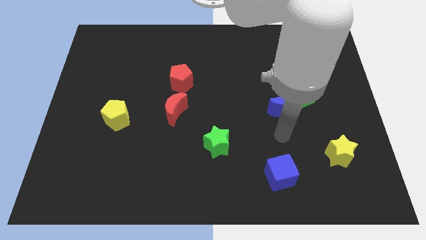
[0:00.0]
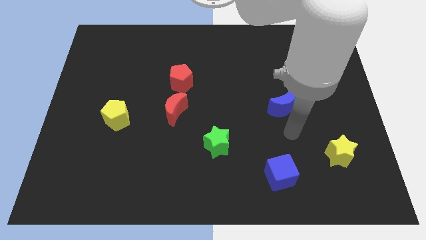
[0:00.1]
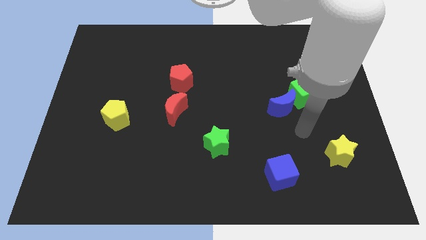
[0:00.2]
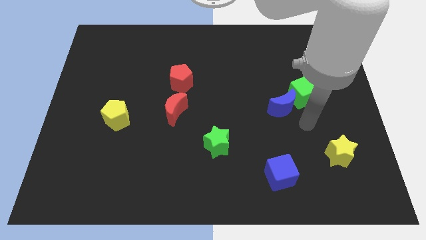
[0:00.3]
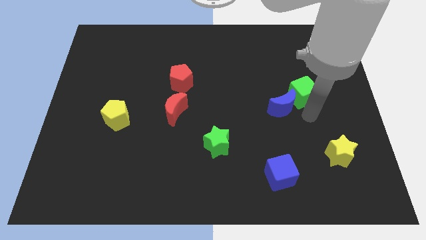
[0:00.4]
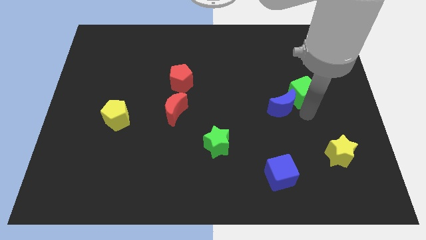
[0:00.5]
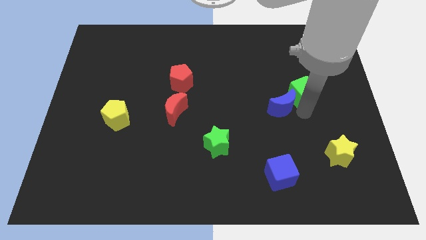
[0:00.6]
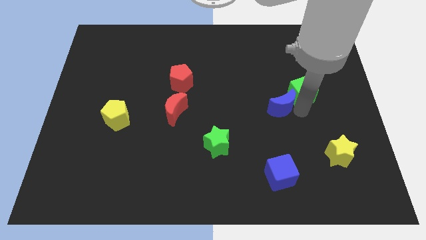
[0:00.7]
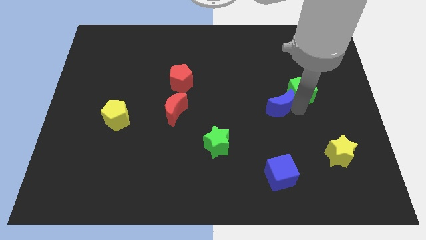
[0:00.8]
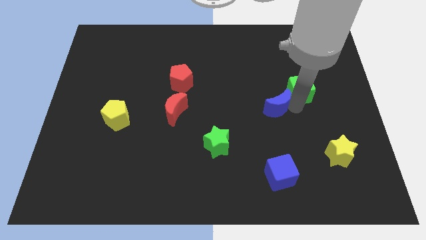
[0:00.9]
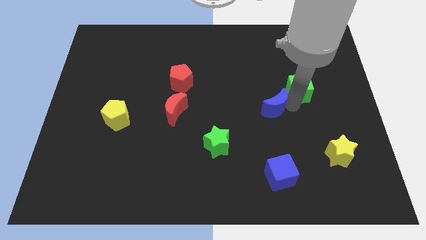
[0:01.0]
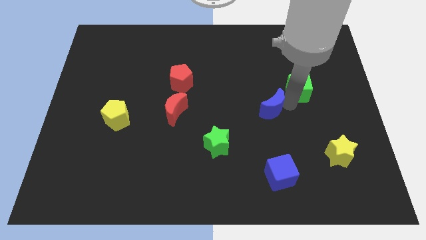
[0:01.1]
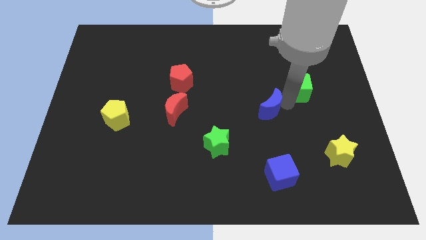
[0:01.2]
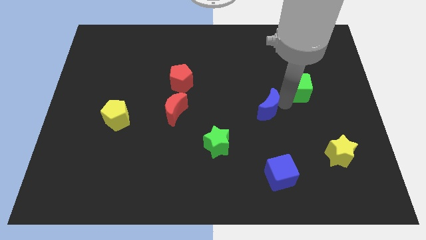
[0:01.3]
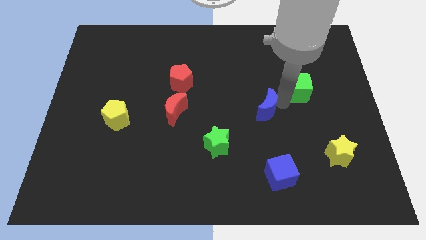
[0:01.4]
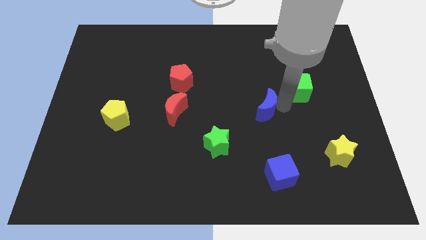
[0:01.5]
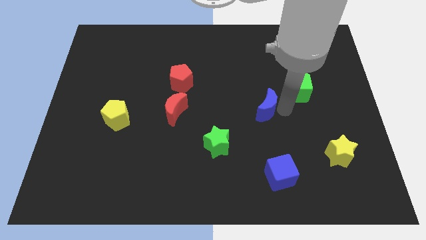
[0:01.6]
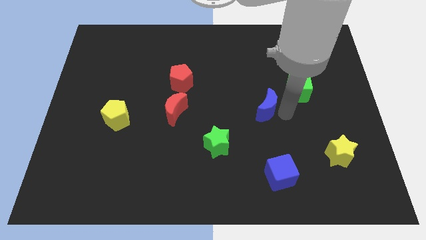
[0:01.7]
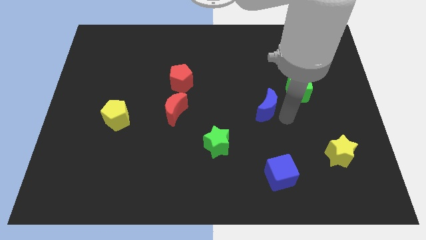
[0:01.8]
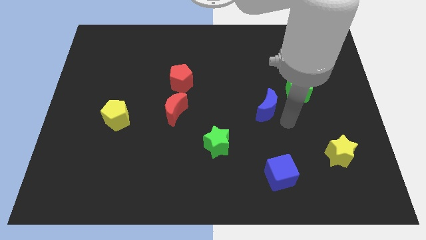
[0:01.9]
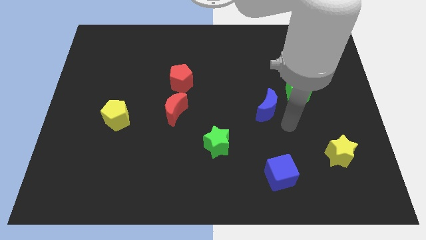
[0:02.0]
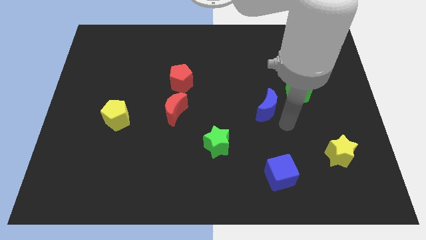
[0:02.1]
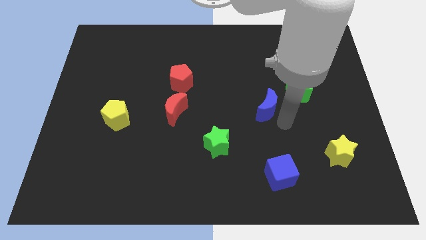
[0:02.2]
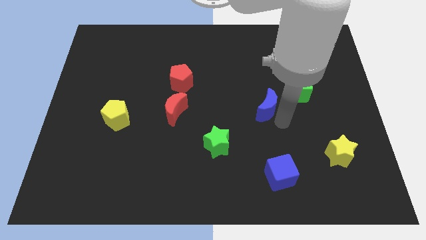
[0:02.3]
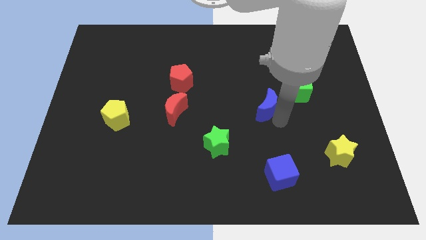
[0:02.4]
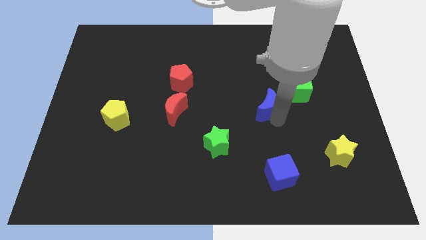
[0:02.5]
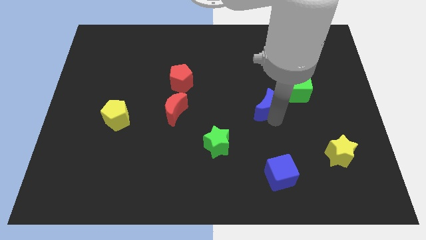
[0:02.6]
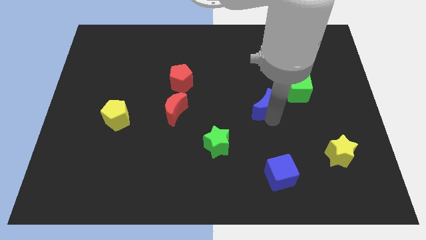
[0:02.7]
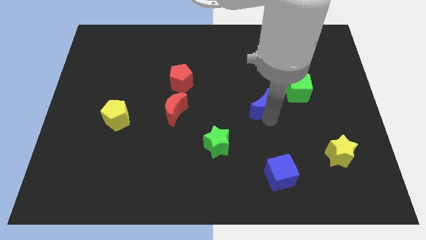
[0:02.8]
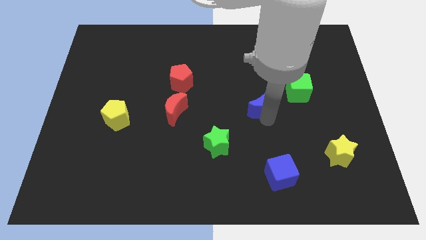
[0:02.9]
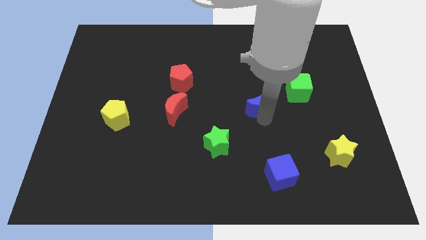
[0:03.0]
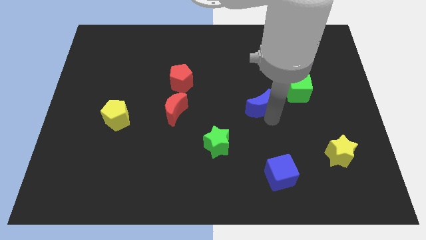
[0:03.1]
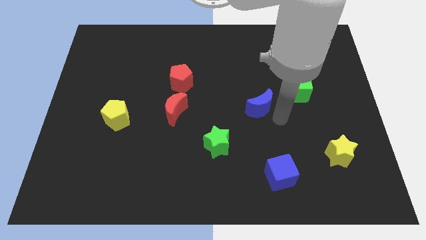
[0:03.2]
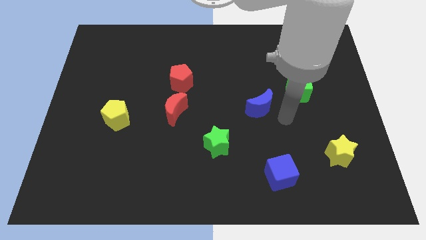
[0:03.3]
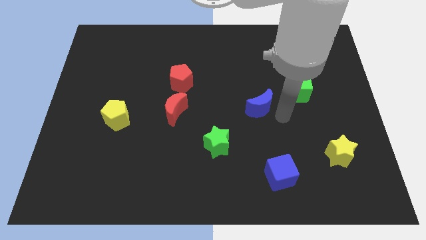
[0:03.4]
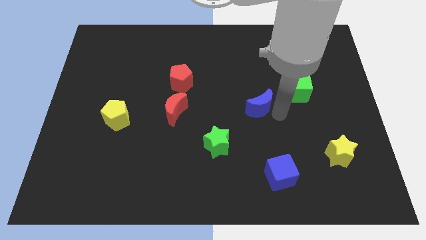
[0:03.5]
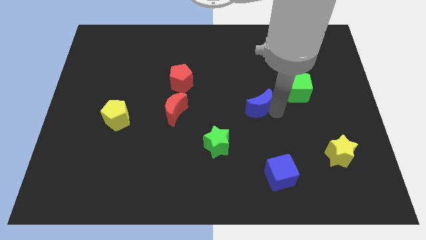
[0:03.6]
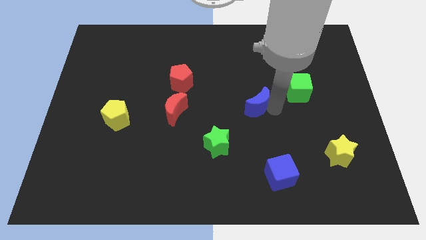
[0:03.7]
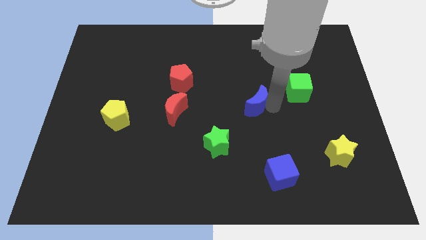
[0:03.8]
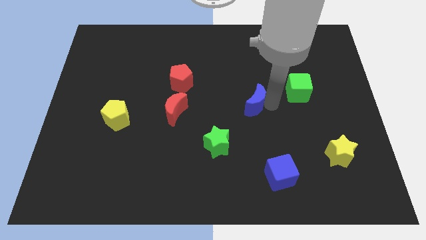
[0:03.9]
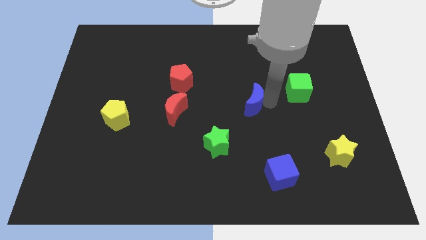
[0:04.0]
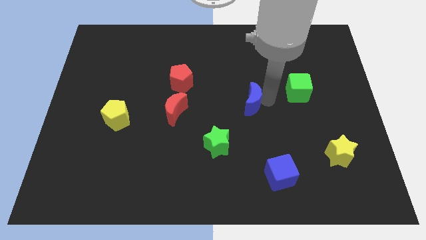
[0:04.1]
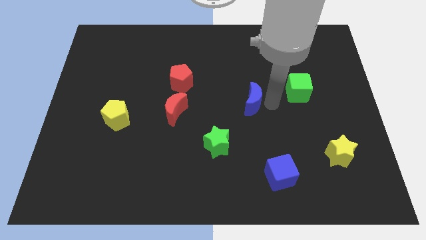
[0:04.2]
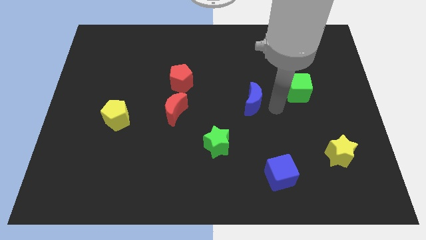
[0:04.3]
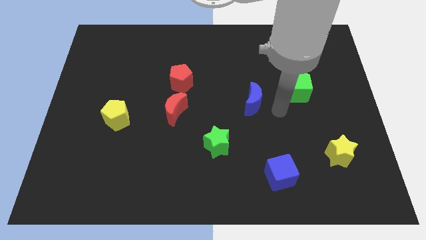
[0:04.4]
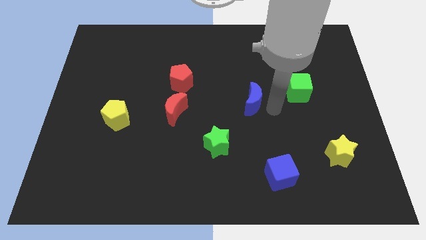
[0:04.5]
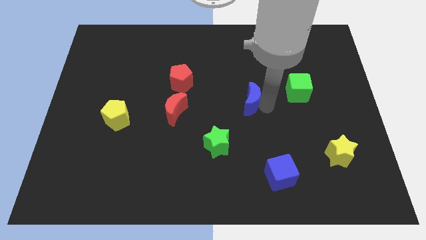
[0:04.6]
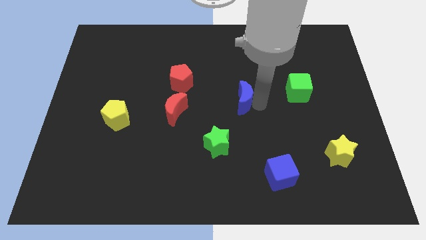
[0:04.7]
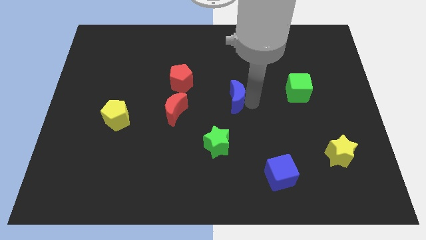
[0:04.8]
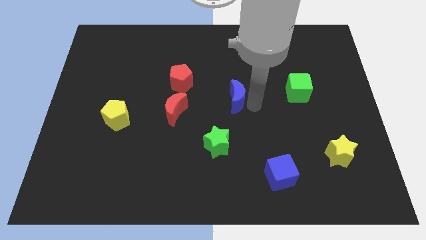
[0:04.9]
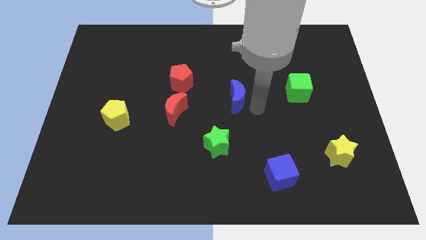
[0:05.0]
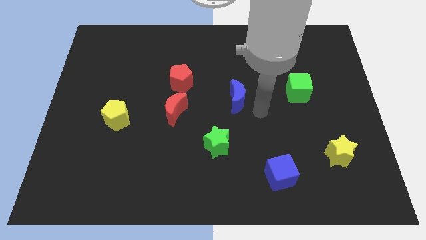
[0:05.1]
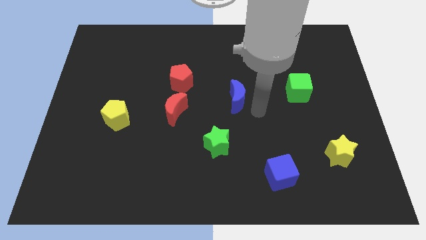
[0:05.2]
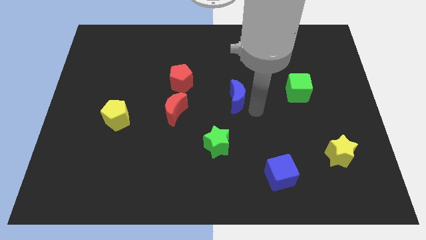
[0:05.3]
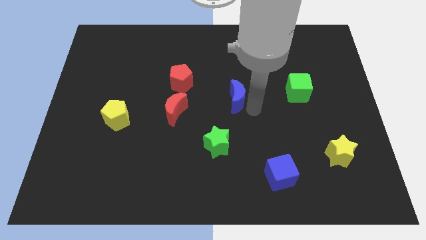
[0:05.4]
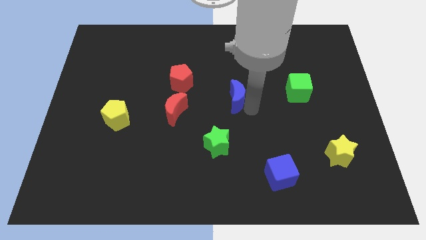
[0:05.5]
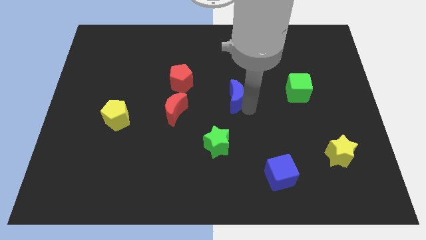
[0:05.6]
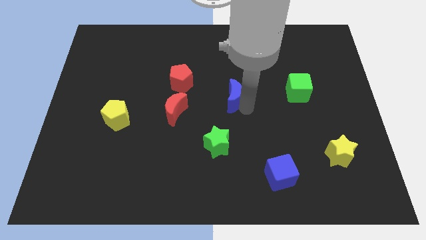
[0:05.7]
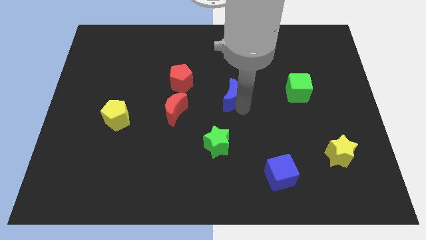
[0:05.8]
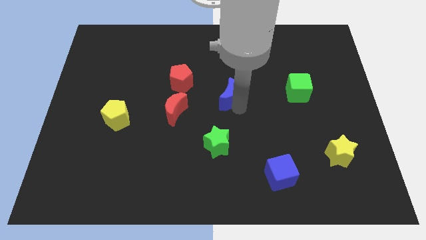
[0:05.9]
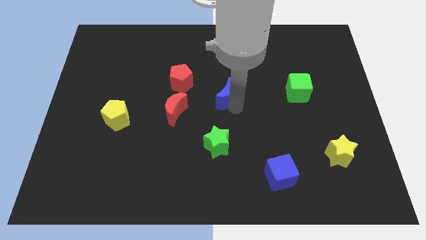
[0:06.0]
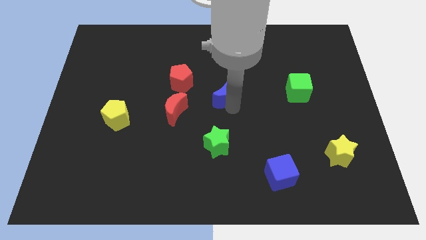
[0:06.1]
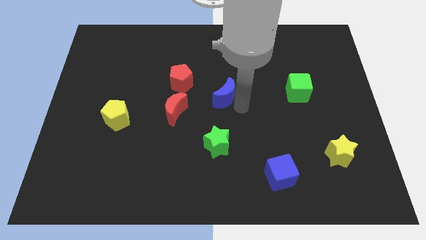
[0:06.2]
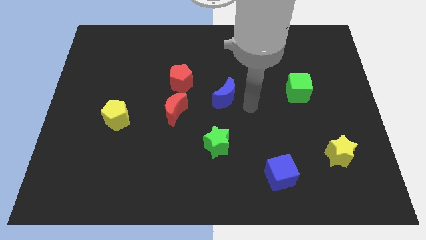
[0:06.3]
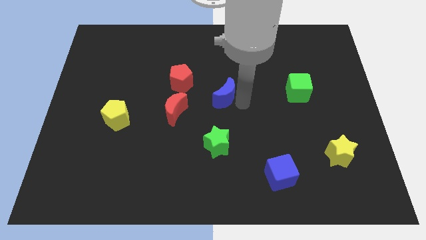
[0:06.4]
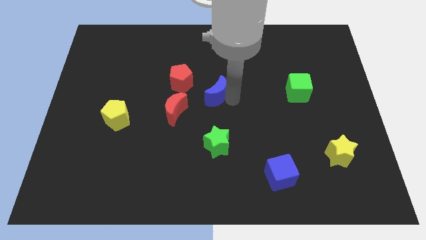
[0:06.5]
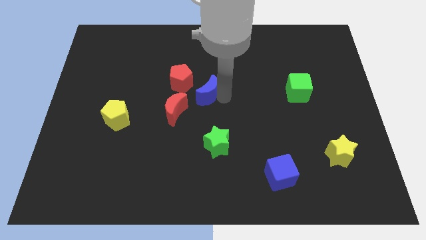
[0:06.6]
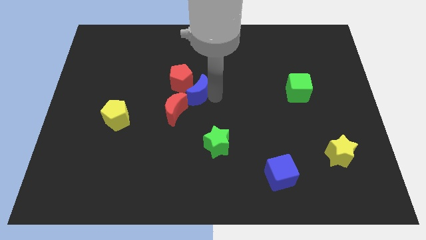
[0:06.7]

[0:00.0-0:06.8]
move the blue moon to the red pentagon

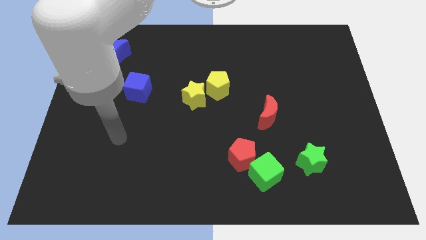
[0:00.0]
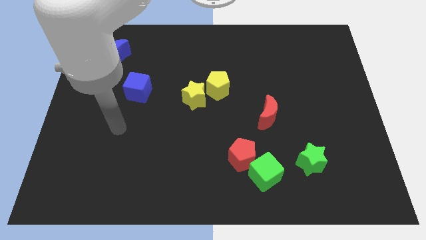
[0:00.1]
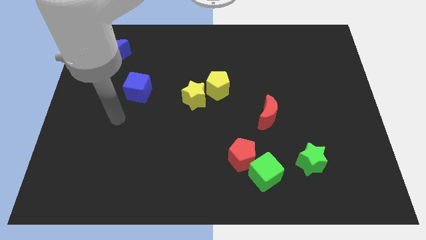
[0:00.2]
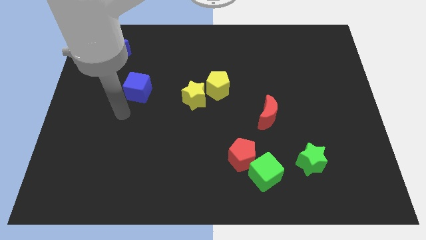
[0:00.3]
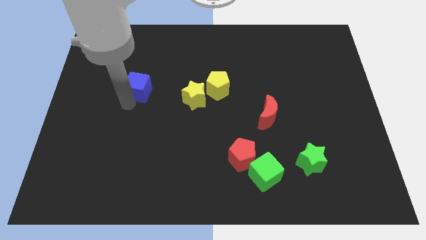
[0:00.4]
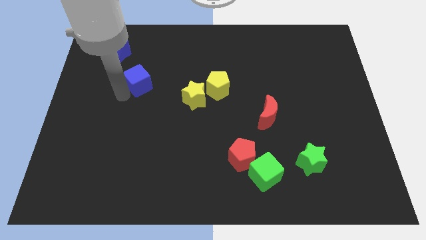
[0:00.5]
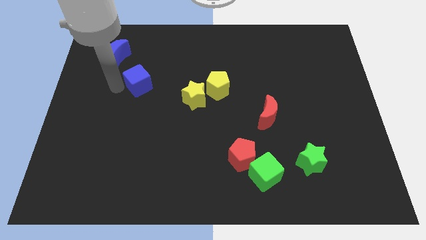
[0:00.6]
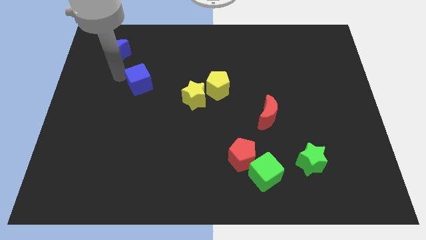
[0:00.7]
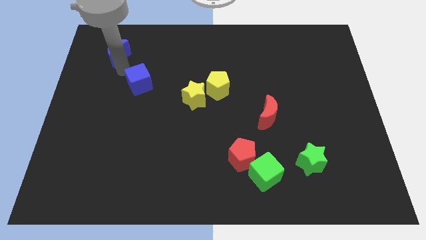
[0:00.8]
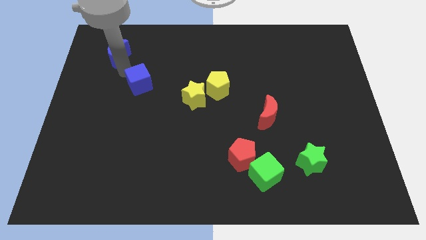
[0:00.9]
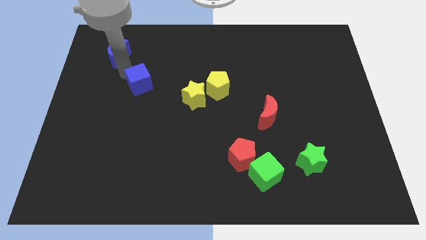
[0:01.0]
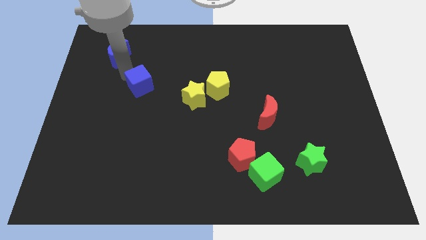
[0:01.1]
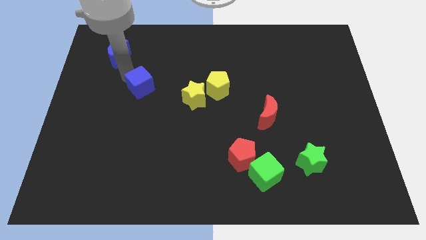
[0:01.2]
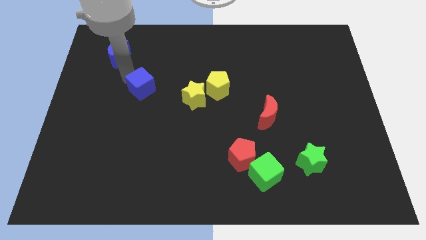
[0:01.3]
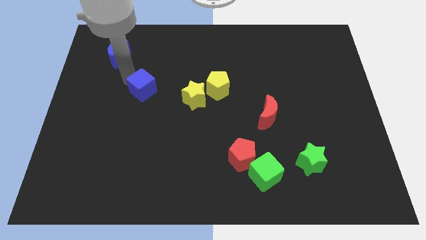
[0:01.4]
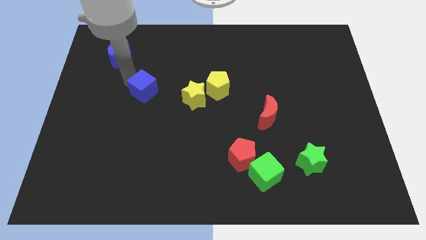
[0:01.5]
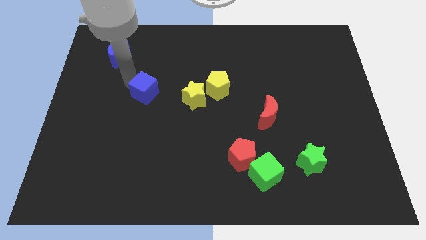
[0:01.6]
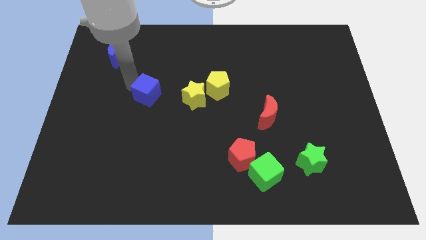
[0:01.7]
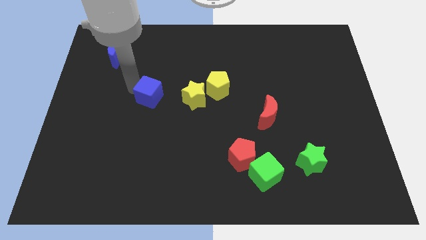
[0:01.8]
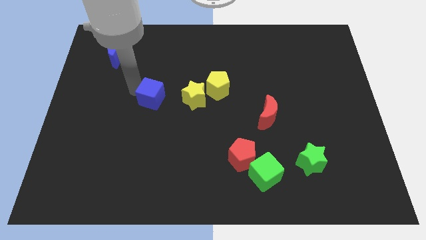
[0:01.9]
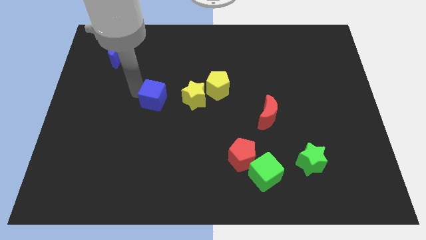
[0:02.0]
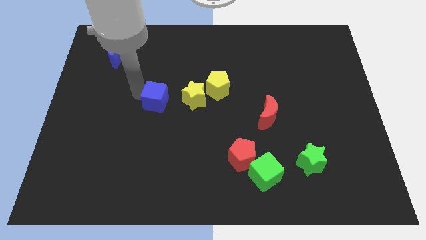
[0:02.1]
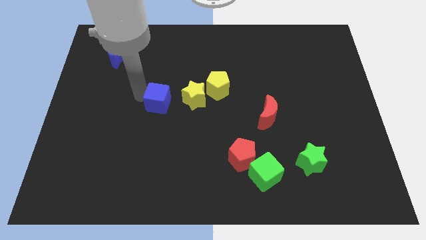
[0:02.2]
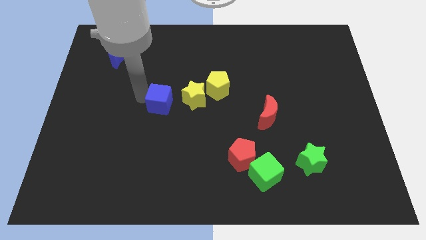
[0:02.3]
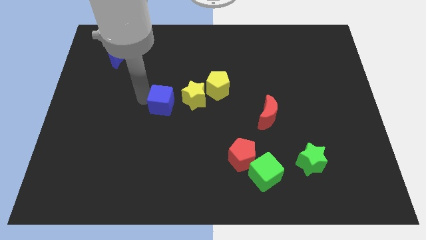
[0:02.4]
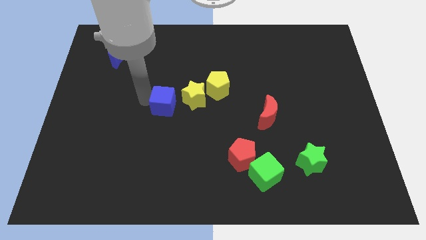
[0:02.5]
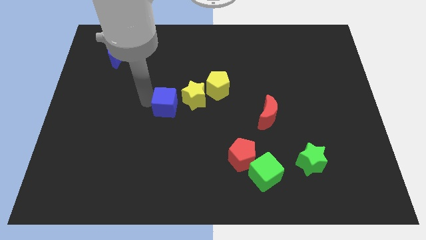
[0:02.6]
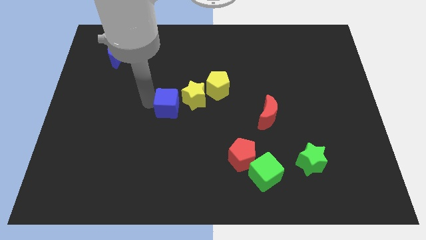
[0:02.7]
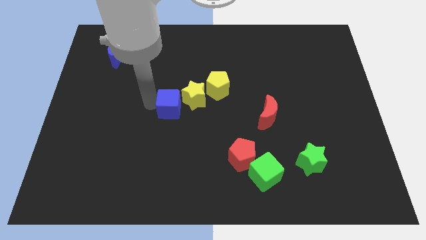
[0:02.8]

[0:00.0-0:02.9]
put the blue cube next to the yellow star
